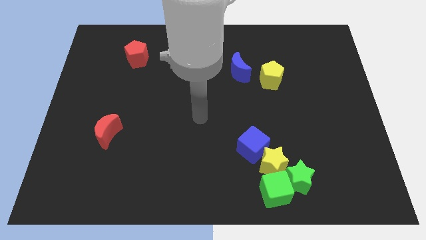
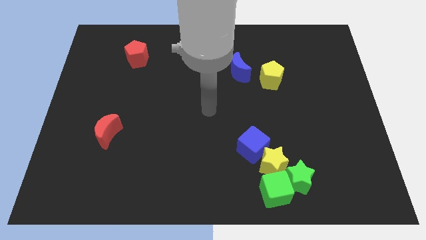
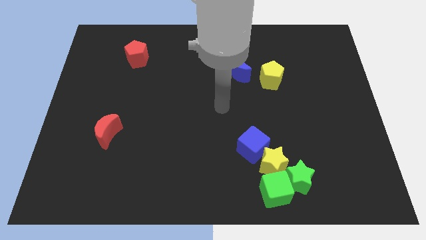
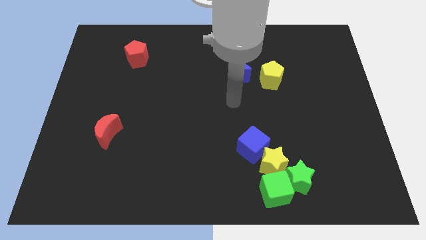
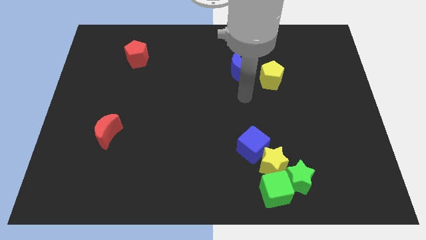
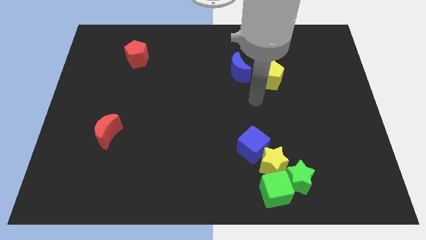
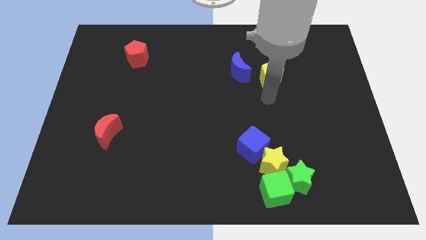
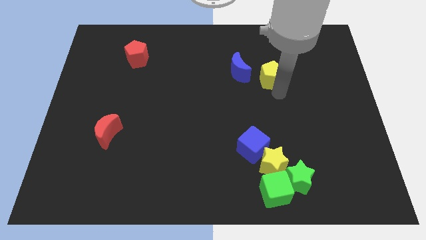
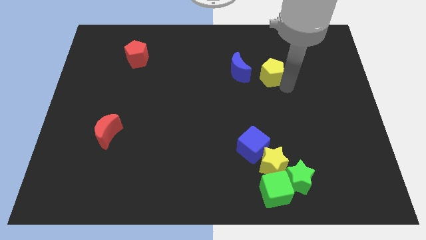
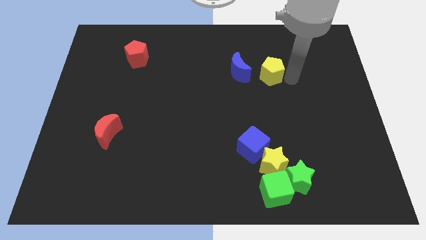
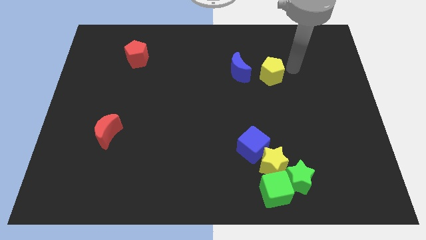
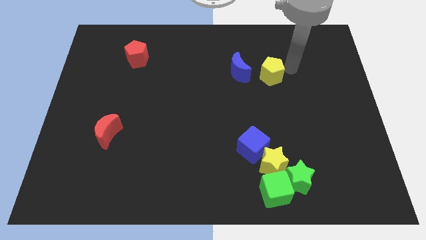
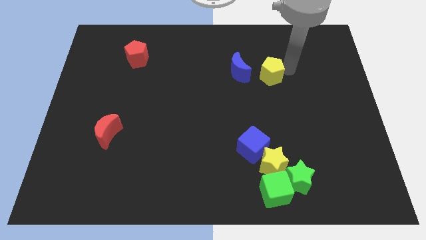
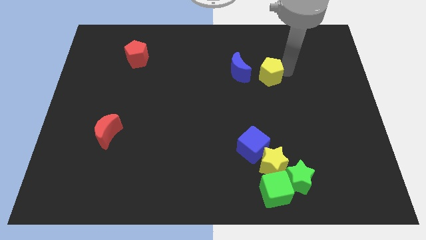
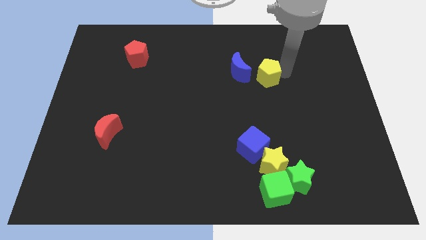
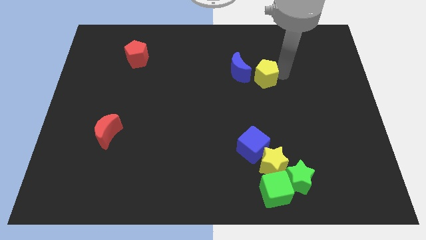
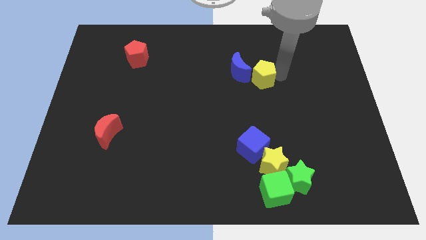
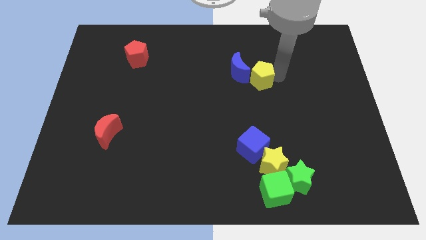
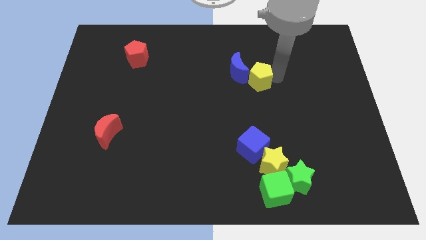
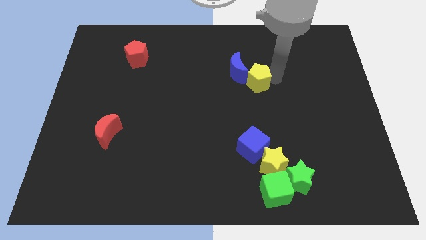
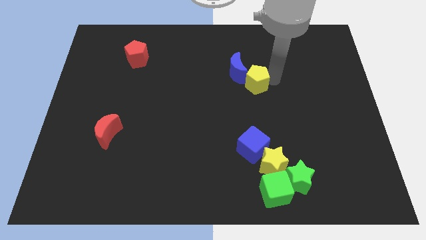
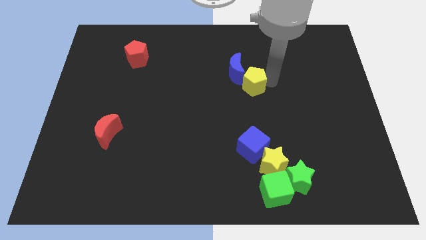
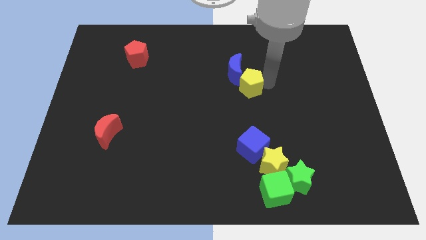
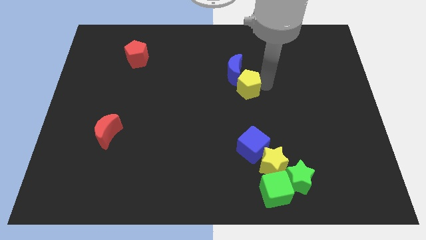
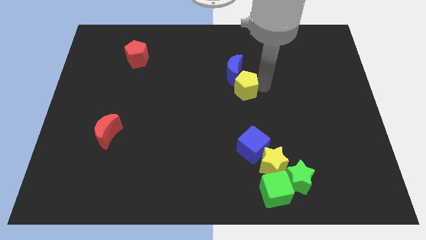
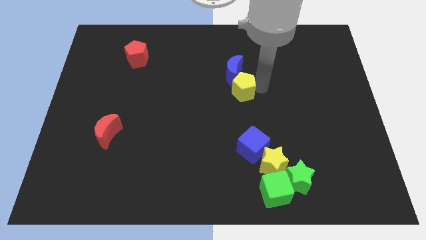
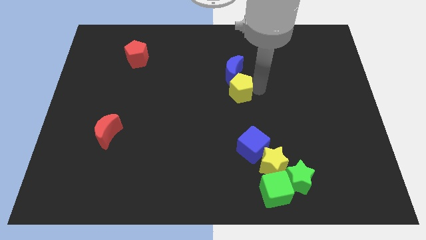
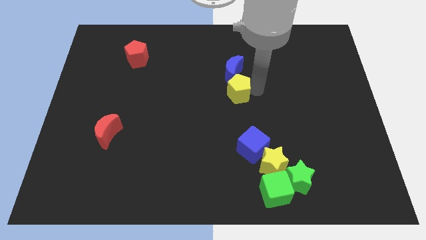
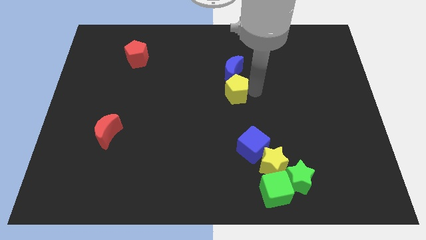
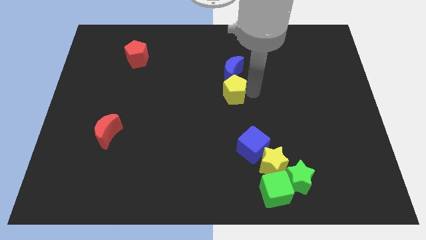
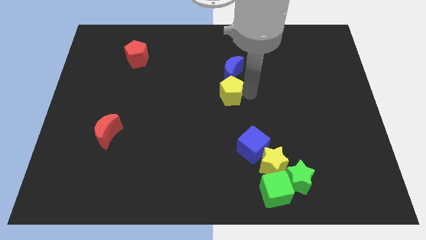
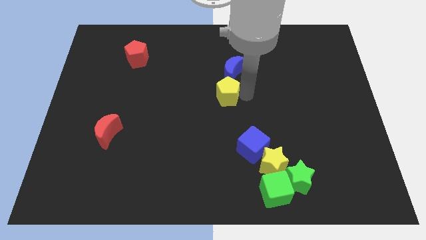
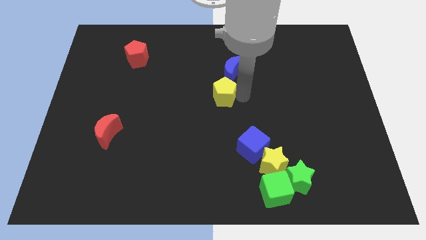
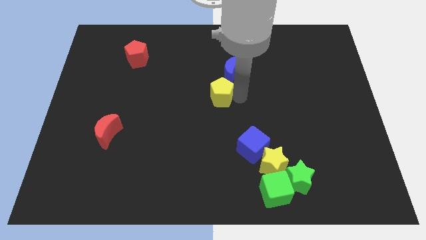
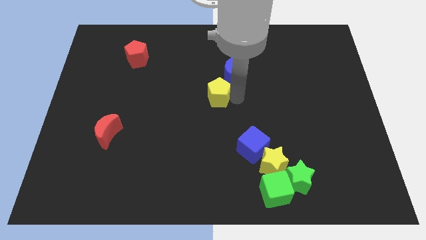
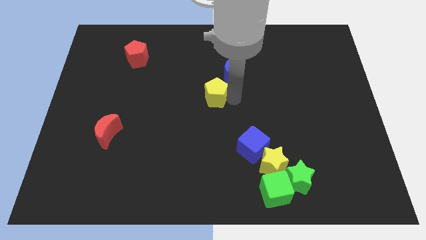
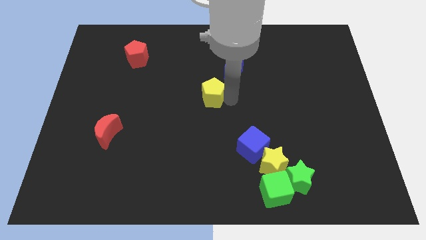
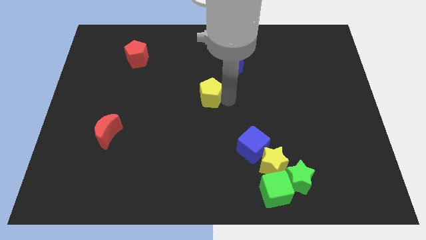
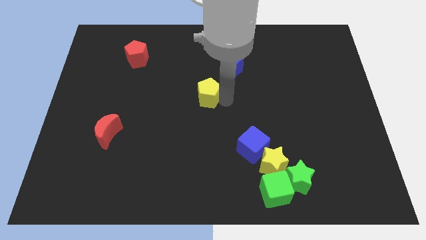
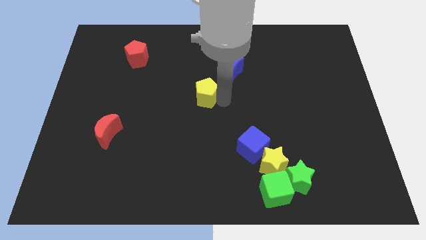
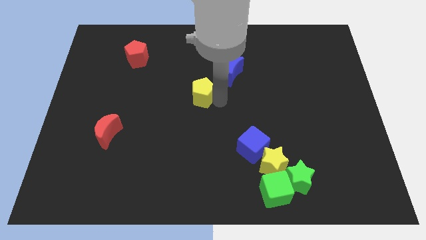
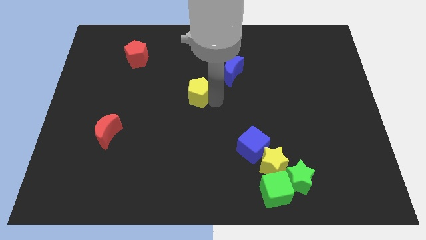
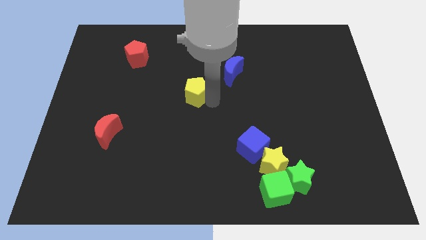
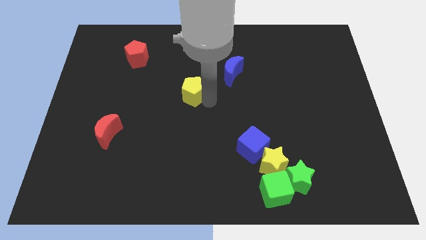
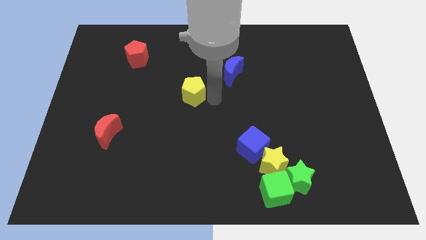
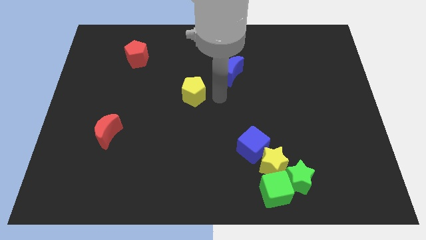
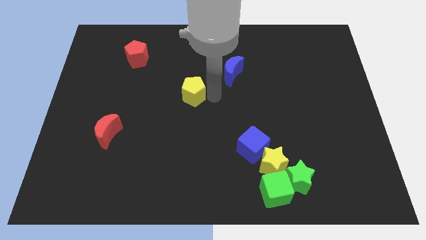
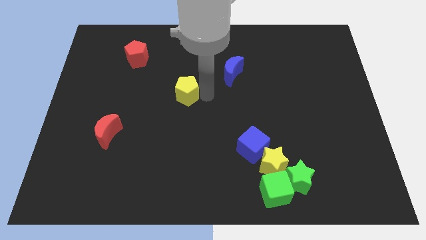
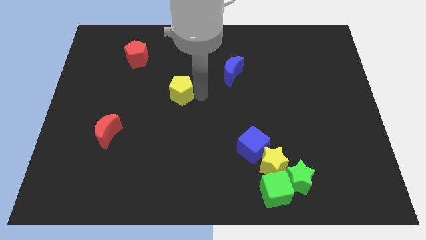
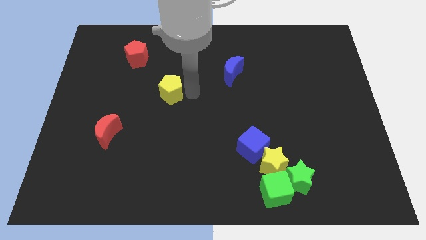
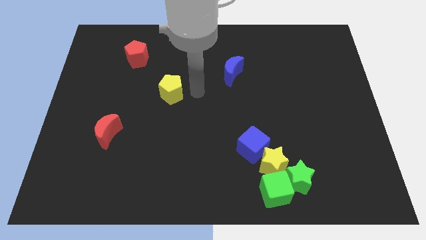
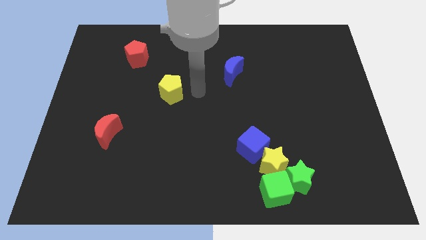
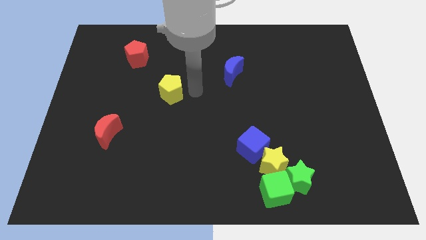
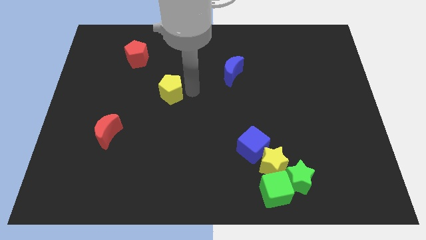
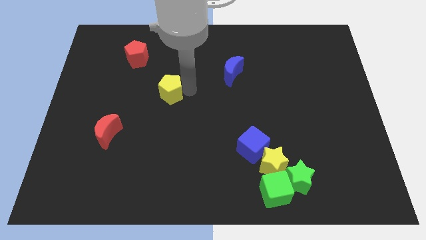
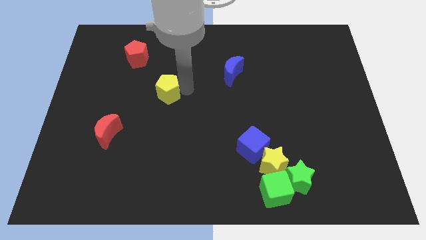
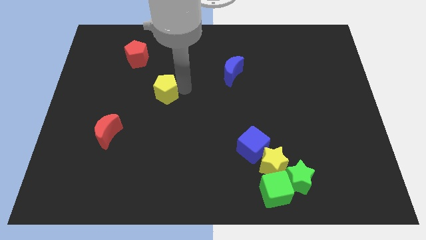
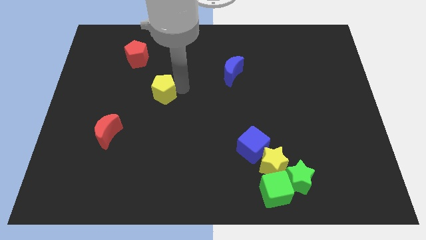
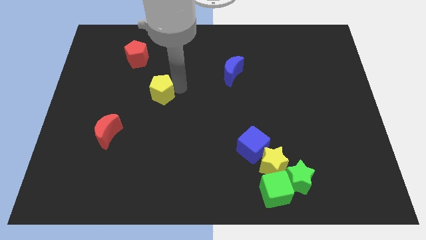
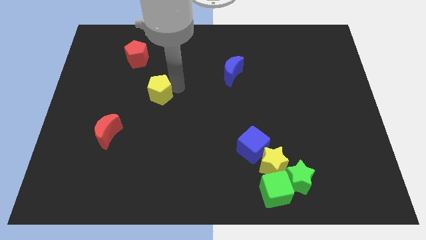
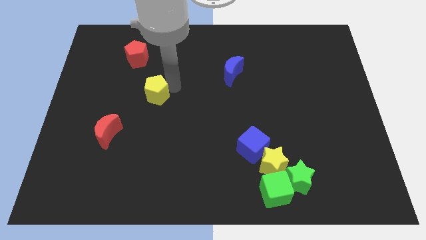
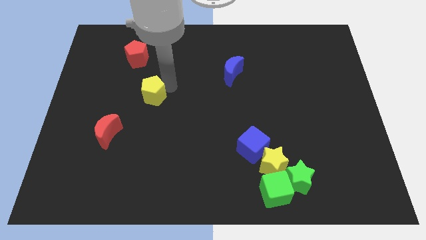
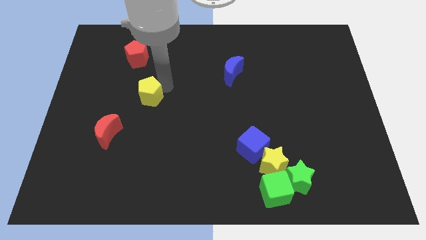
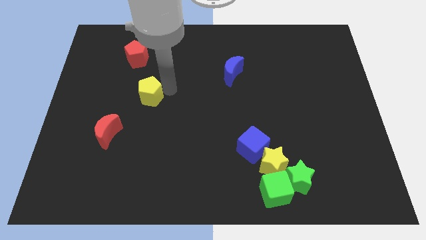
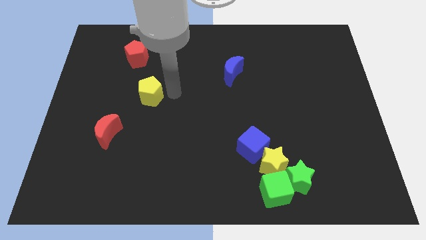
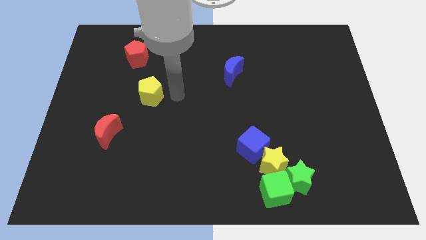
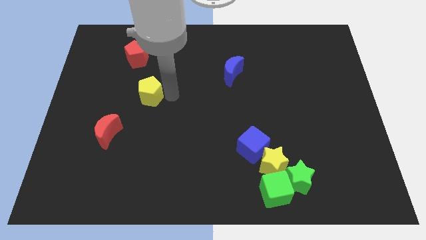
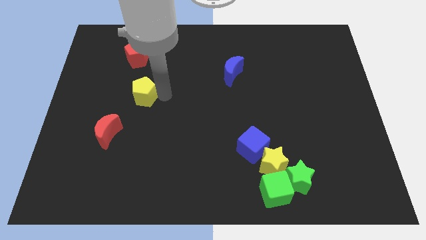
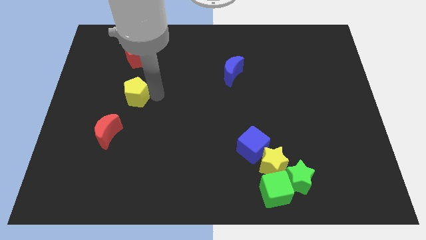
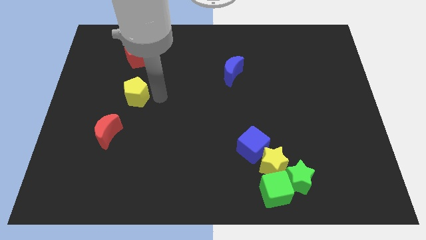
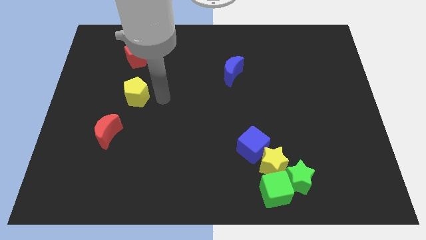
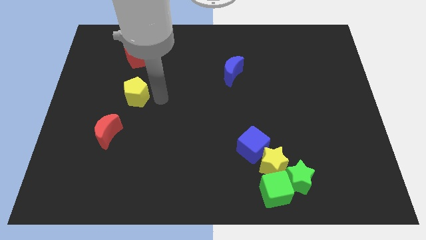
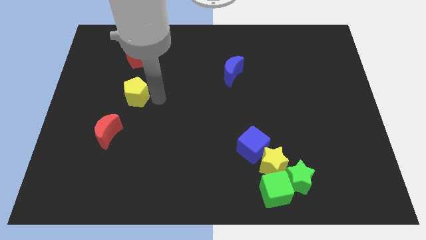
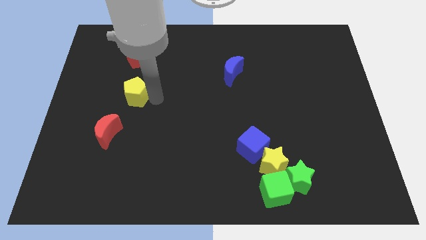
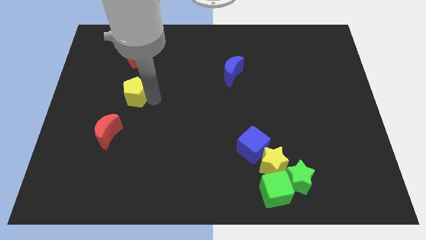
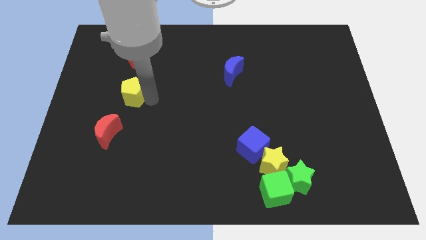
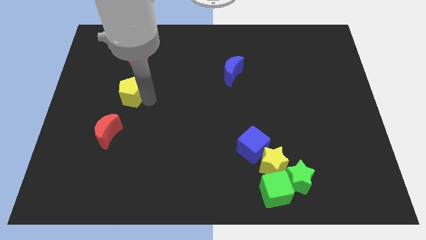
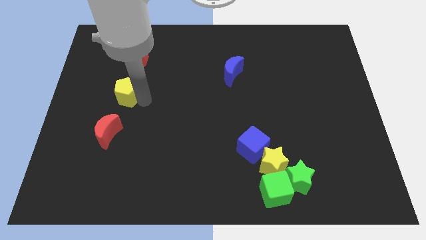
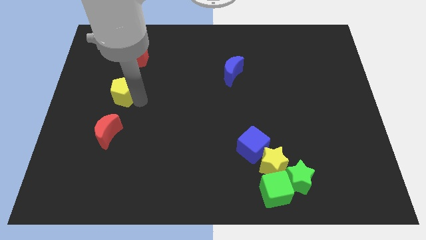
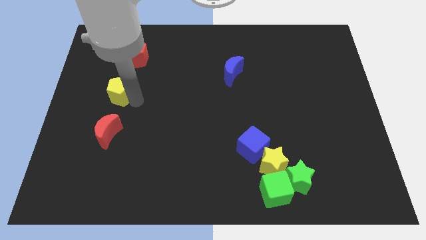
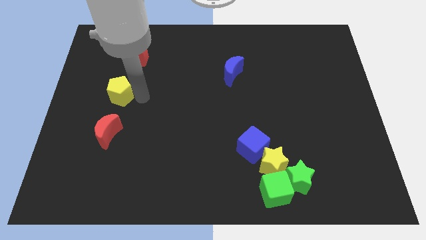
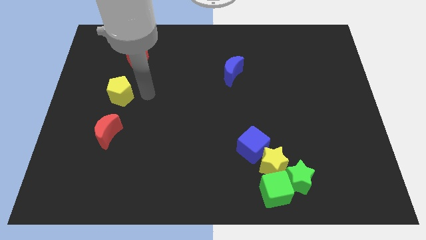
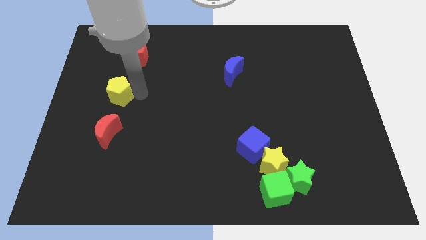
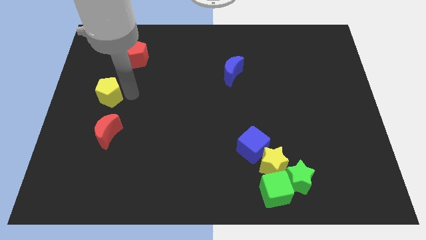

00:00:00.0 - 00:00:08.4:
slide the yellow pentagon to the center left
